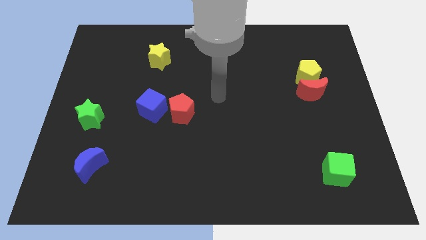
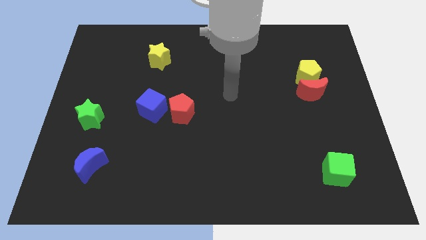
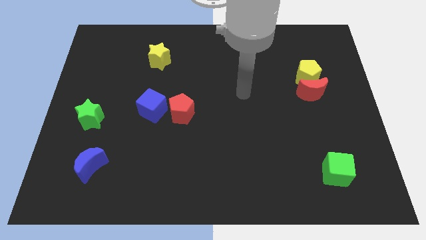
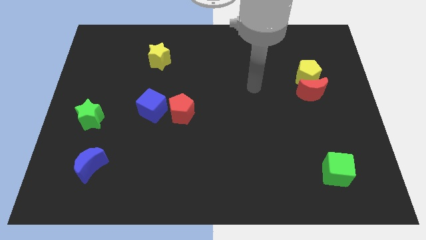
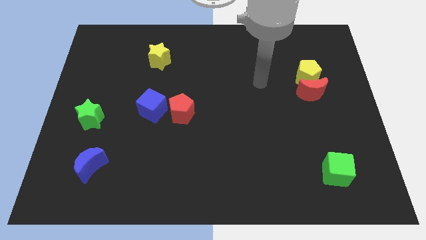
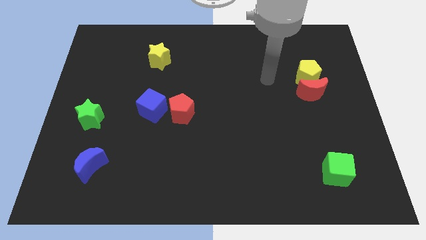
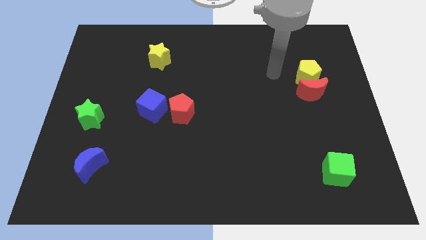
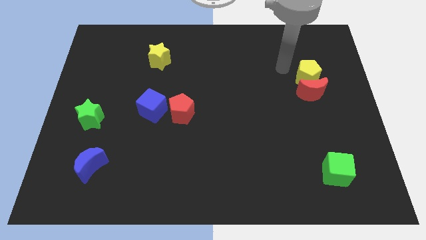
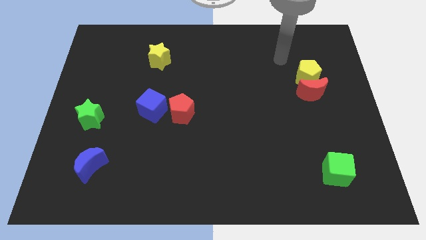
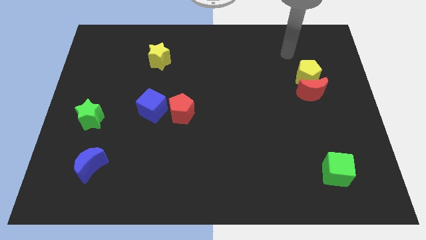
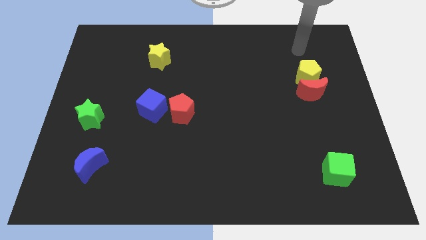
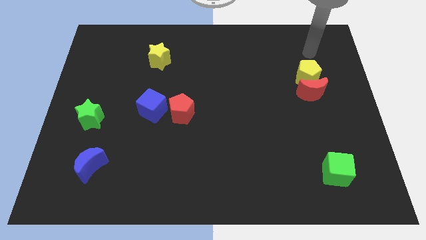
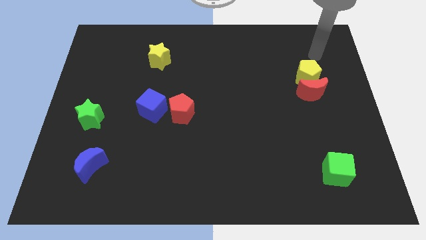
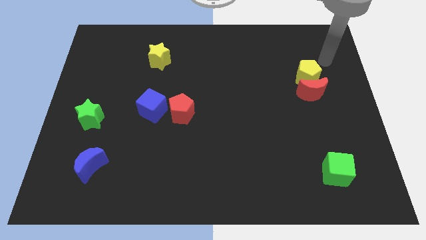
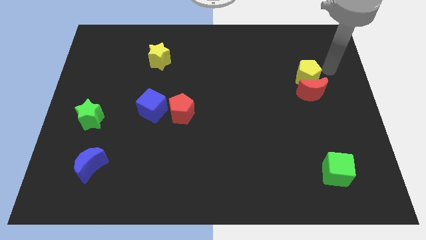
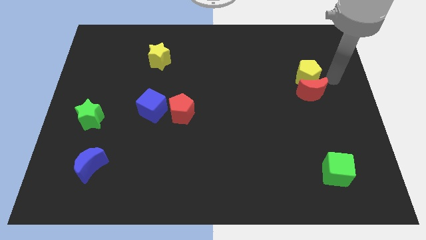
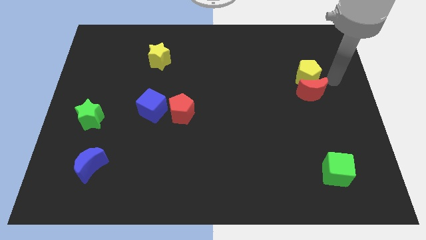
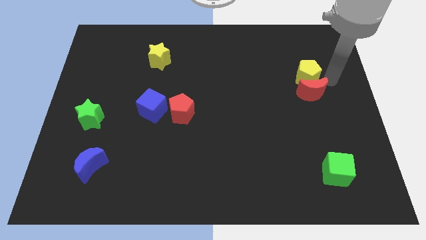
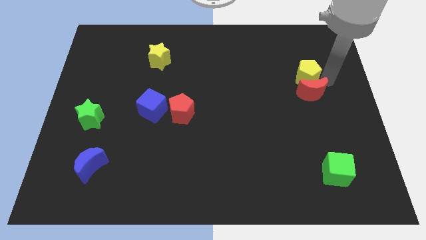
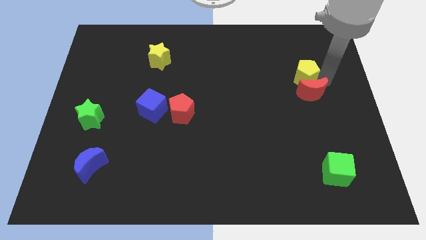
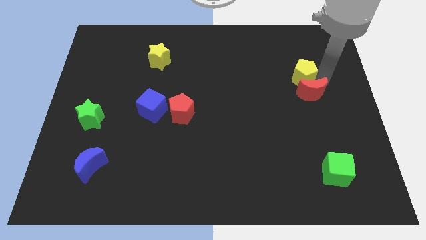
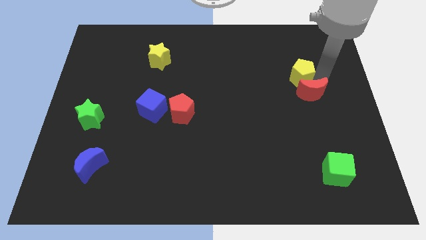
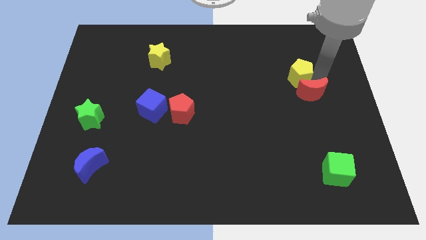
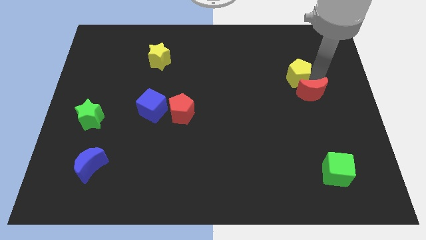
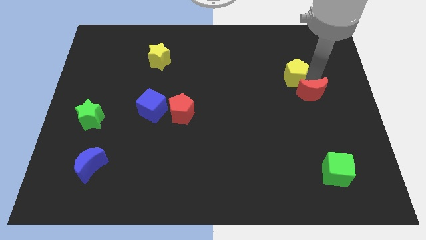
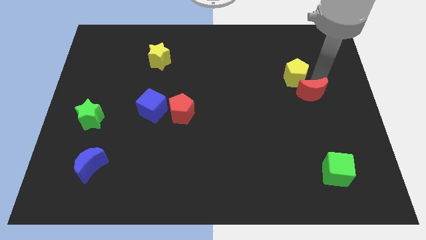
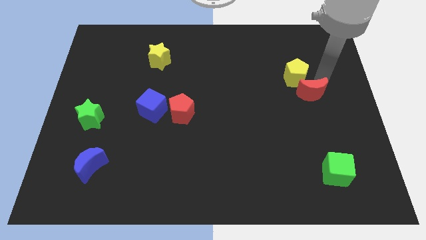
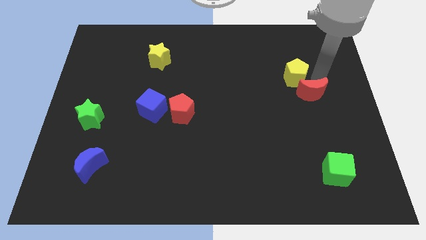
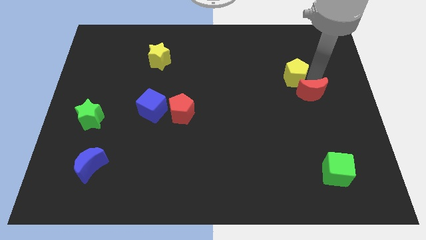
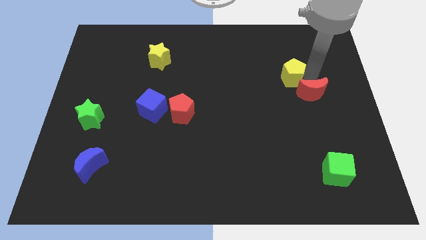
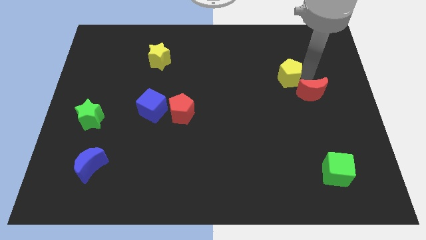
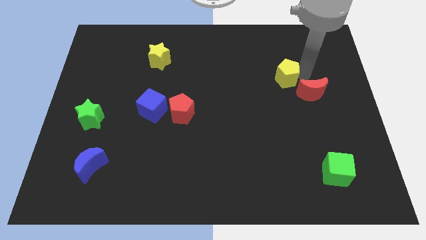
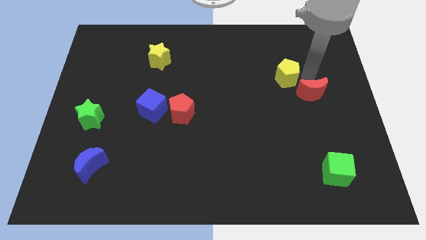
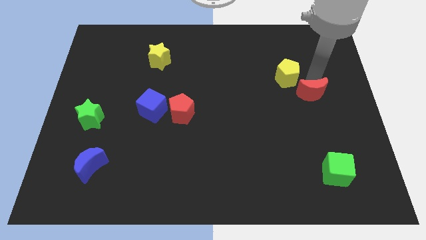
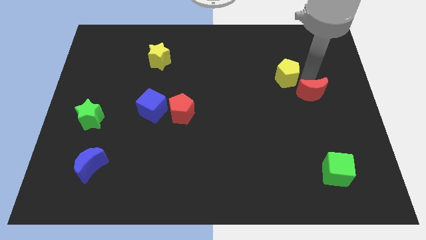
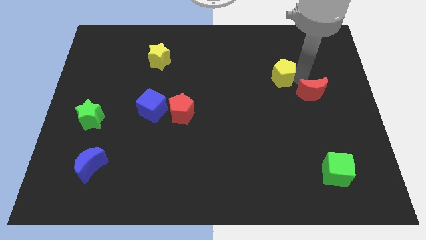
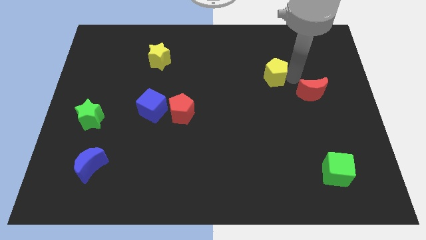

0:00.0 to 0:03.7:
slightly slide the yellow pentagon to the left

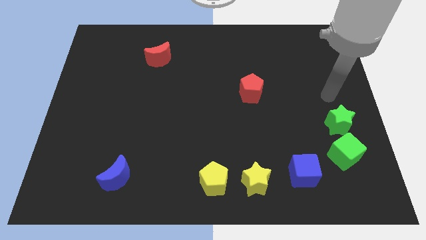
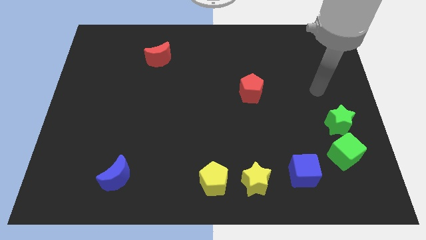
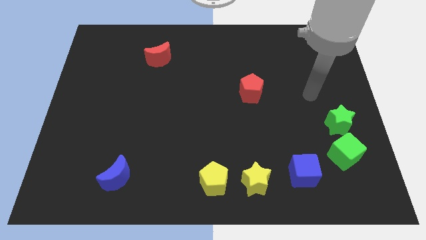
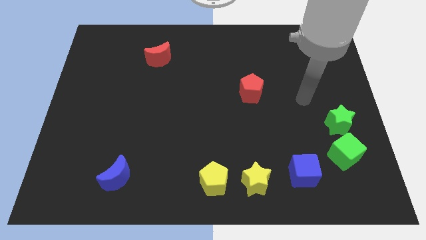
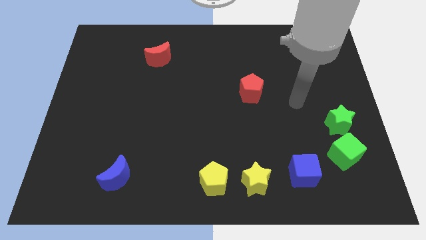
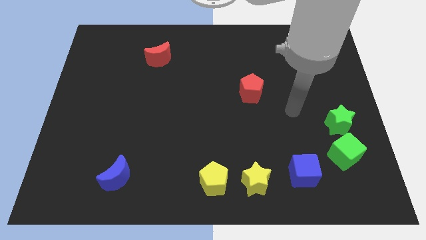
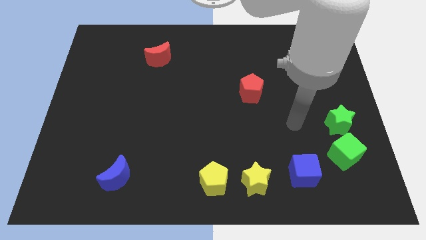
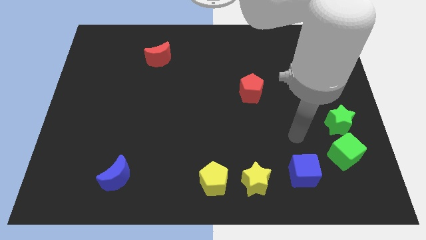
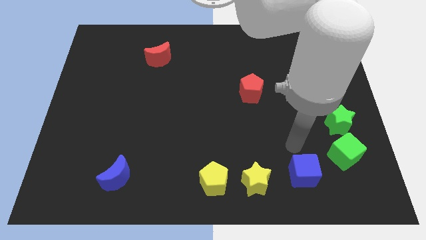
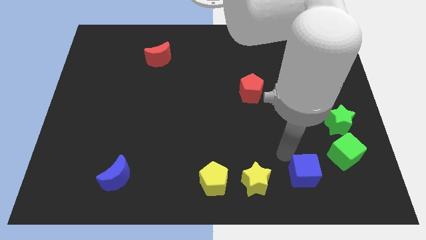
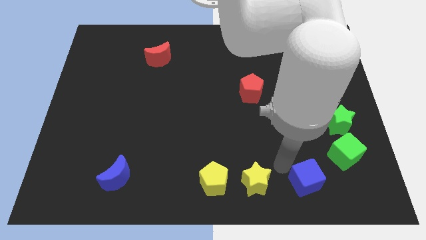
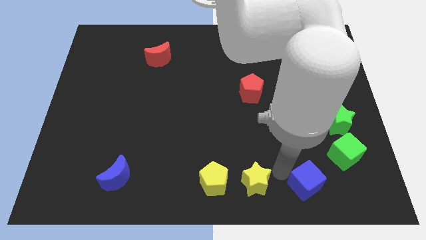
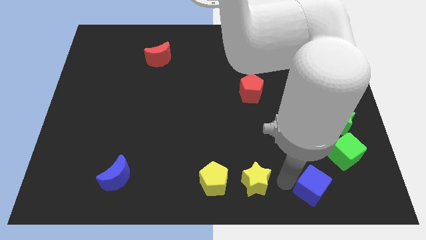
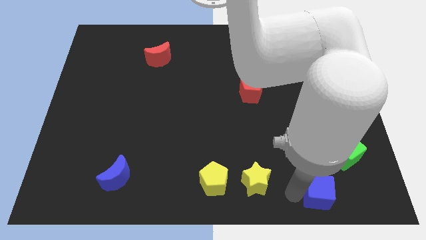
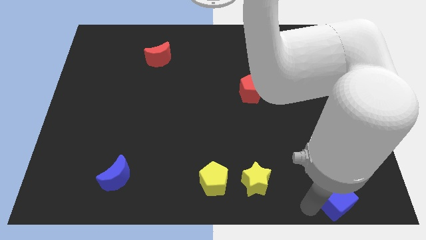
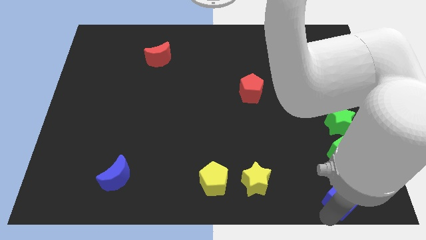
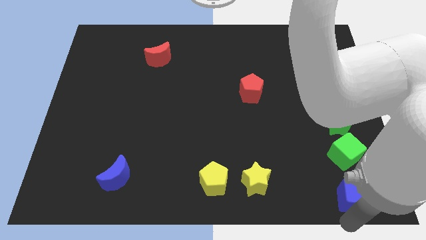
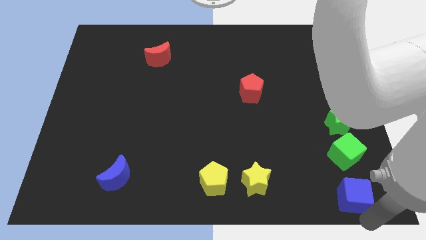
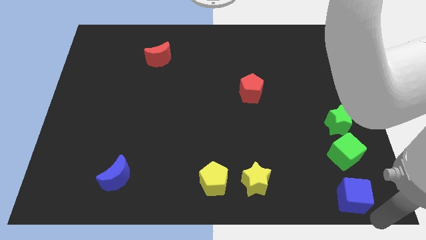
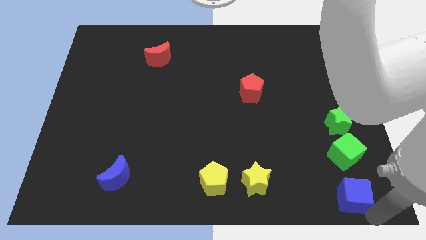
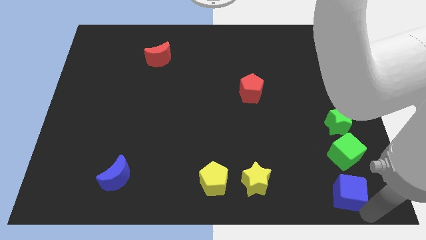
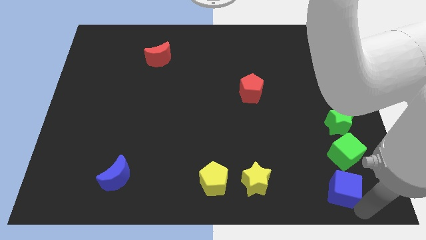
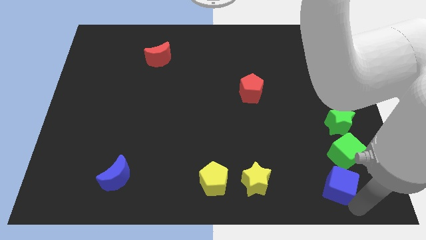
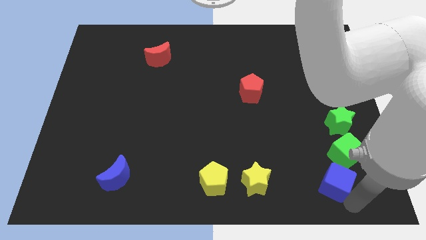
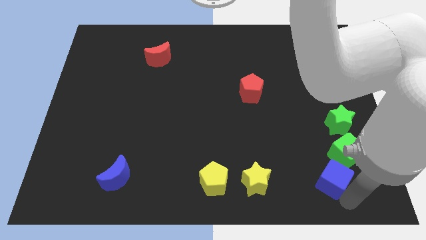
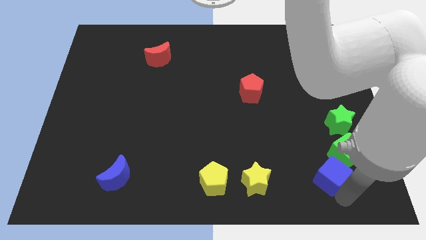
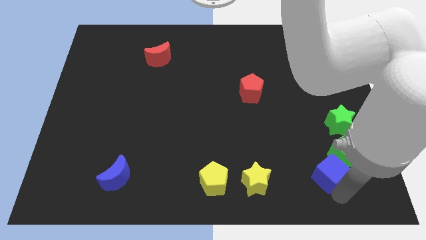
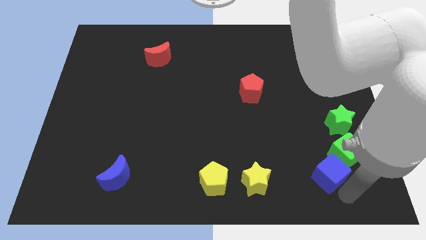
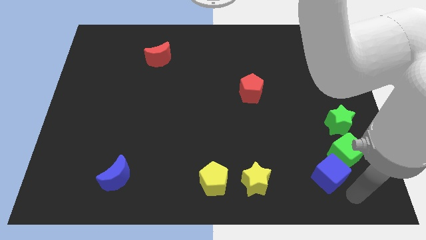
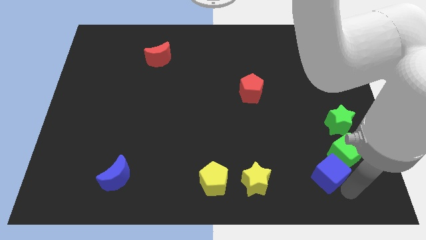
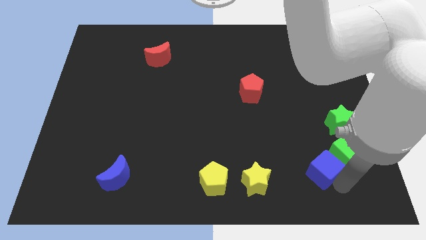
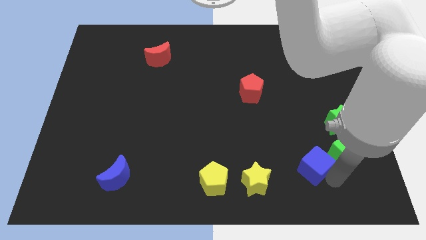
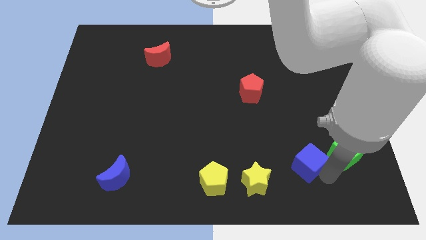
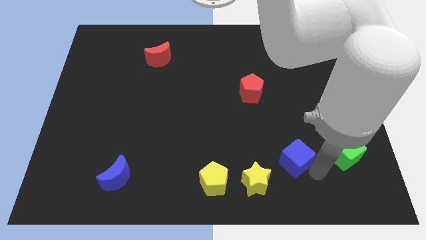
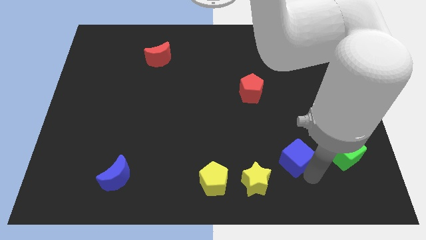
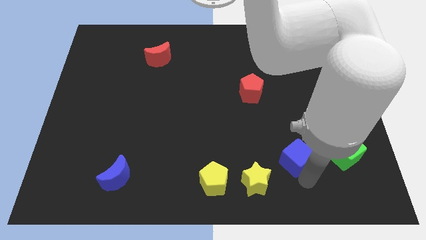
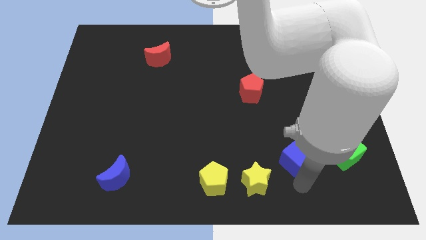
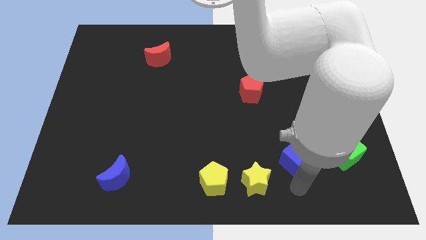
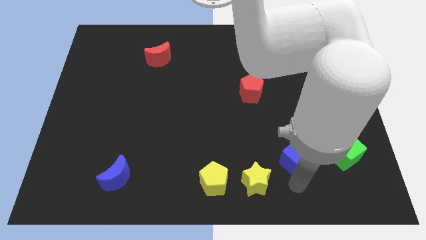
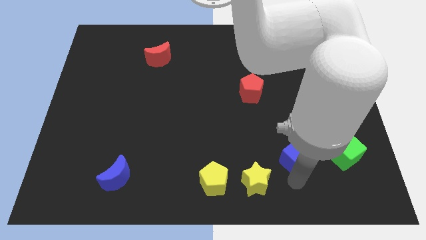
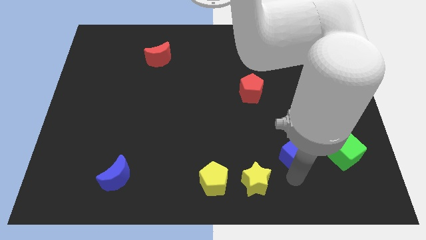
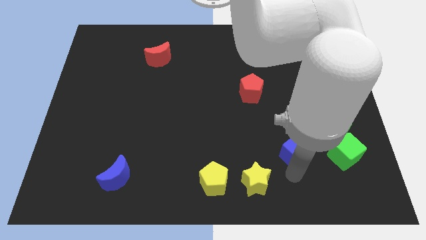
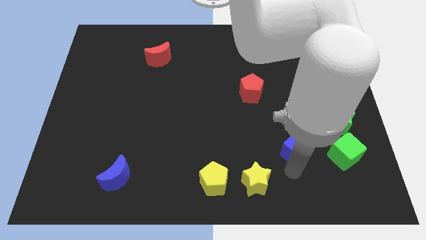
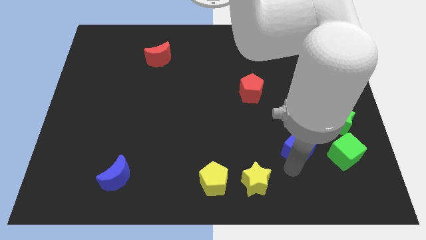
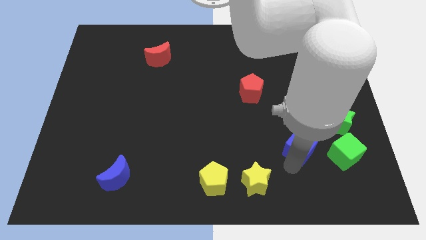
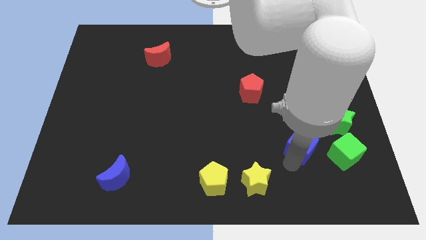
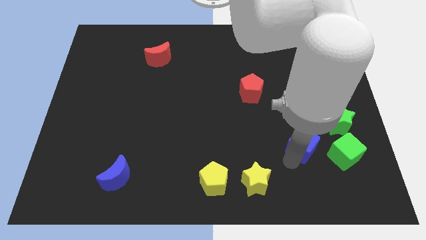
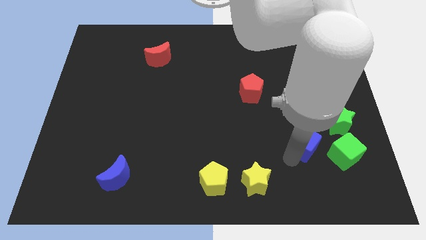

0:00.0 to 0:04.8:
slide the blue cube upwards a little bit

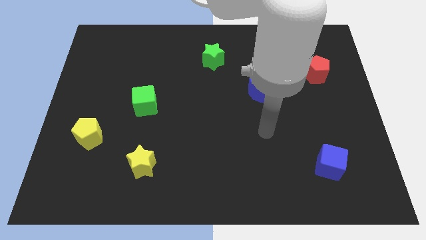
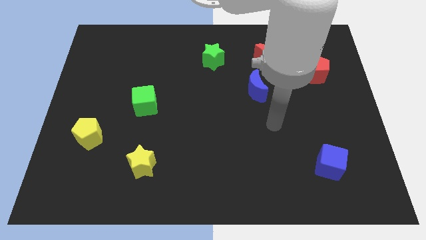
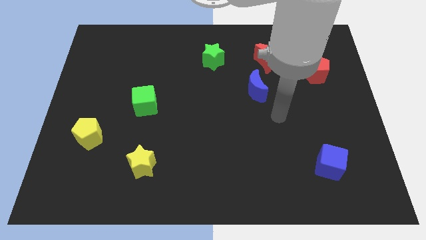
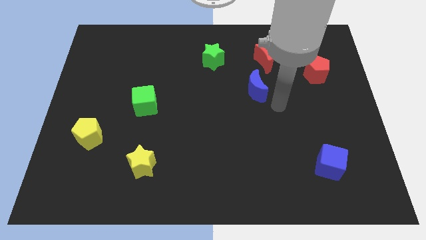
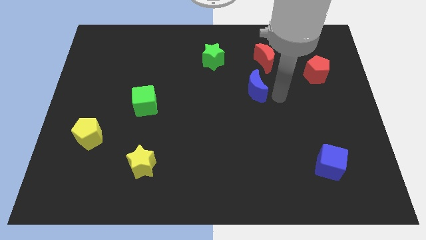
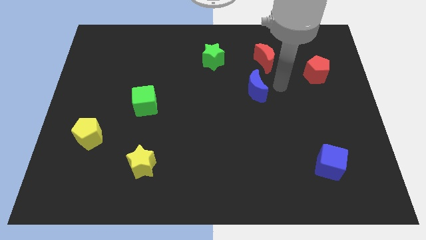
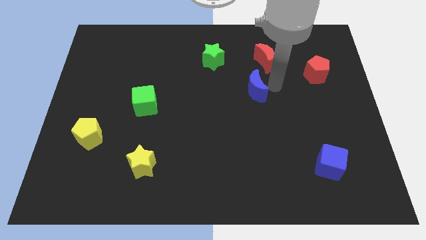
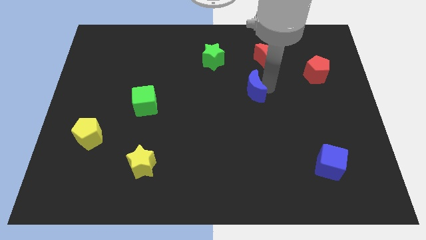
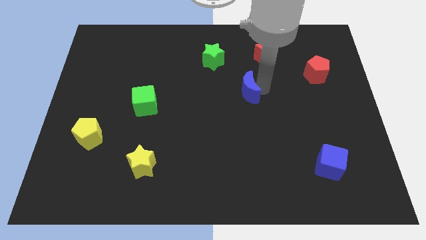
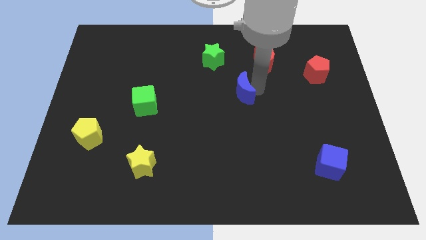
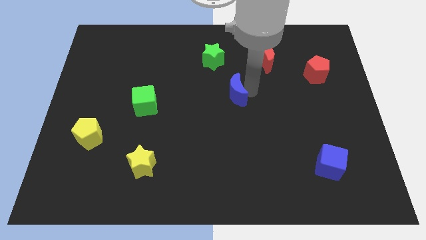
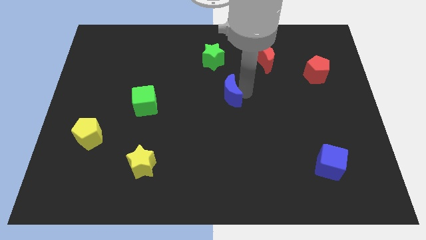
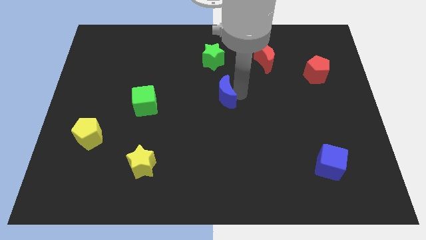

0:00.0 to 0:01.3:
move the blue moon to the left a little bit
